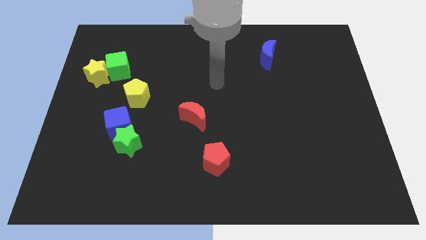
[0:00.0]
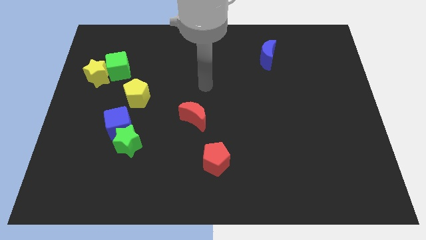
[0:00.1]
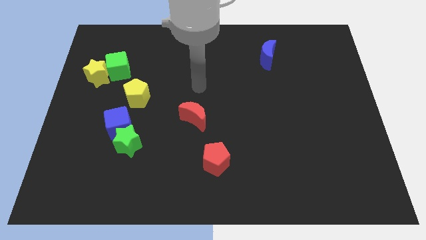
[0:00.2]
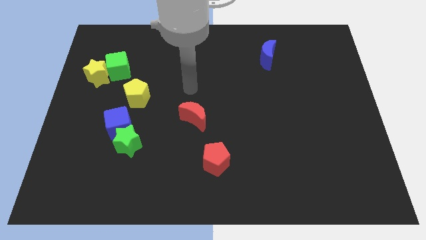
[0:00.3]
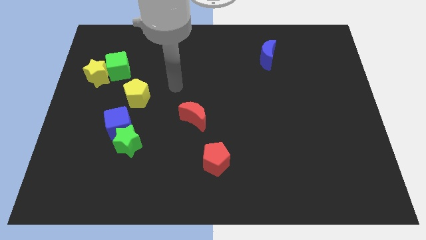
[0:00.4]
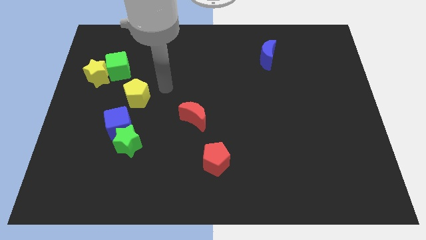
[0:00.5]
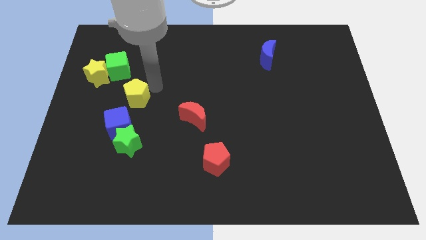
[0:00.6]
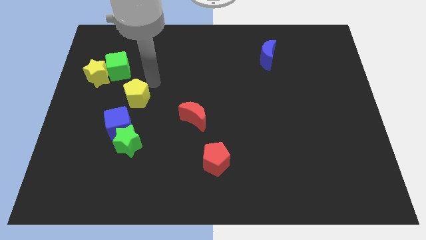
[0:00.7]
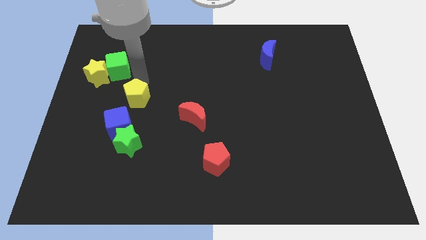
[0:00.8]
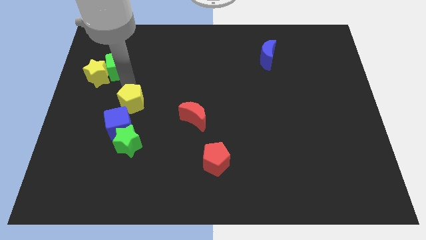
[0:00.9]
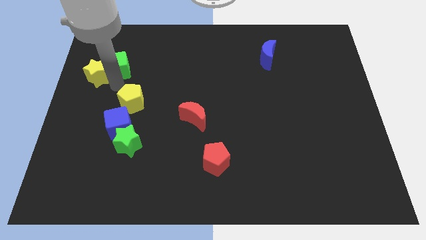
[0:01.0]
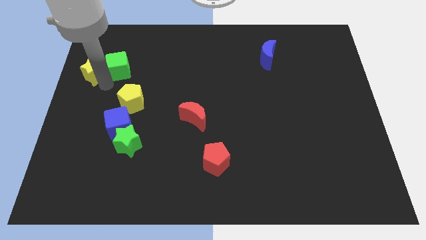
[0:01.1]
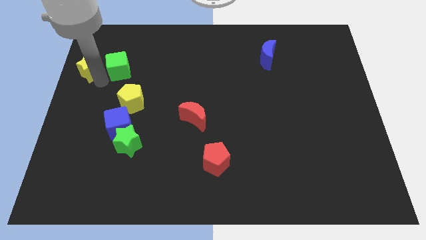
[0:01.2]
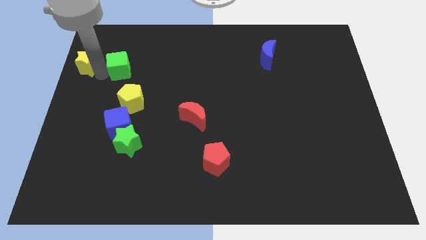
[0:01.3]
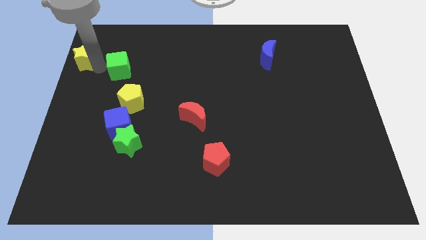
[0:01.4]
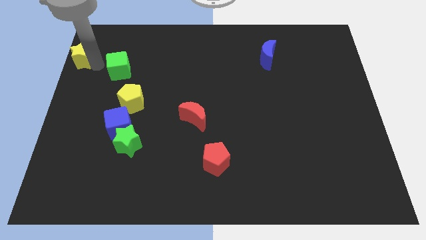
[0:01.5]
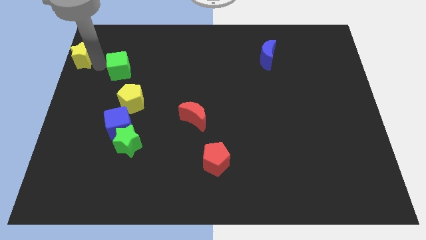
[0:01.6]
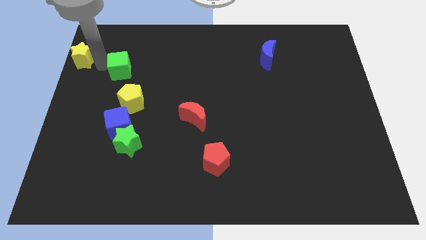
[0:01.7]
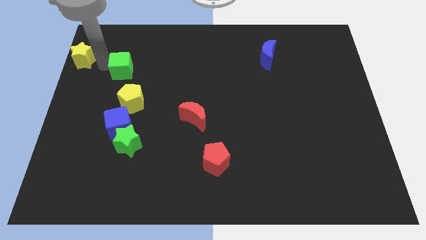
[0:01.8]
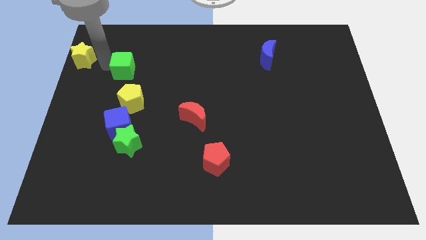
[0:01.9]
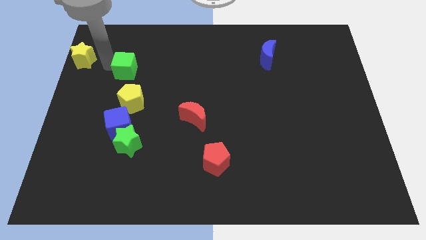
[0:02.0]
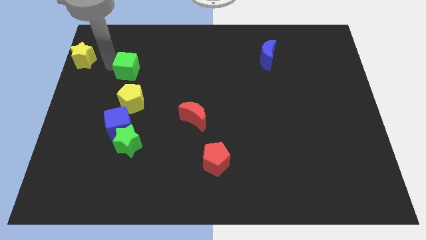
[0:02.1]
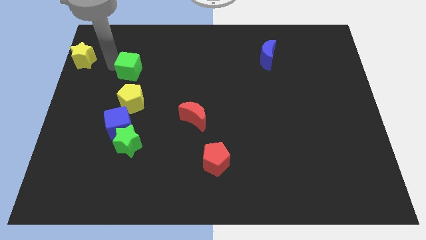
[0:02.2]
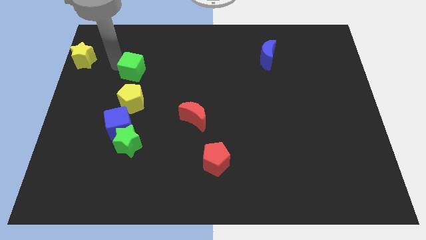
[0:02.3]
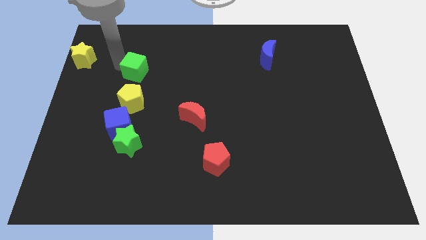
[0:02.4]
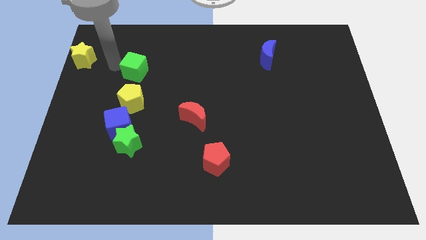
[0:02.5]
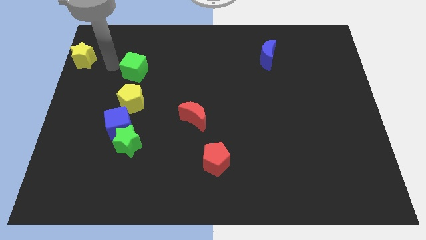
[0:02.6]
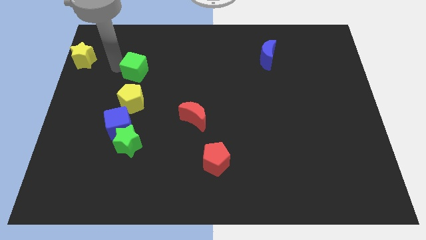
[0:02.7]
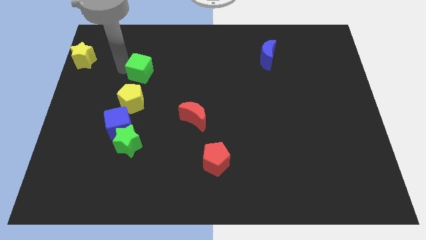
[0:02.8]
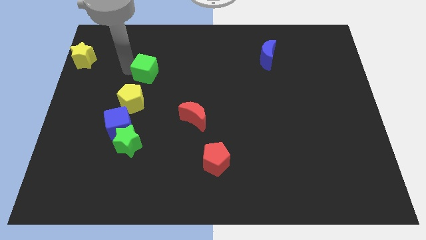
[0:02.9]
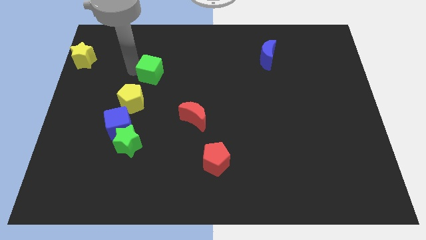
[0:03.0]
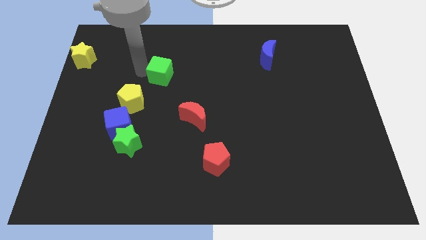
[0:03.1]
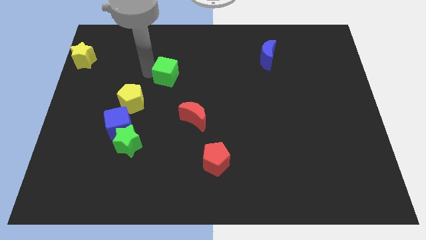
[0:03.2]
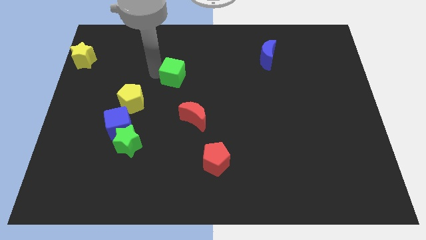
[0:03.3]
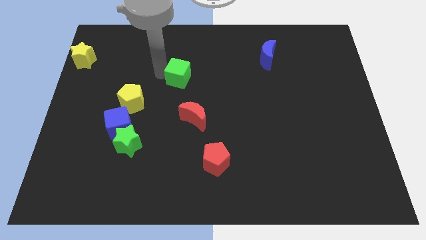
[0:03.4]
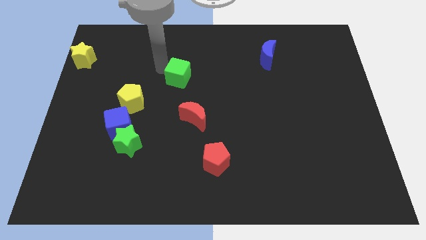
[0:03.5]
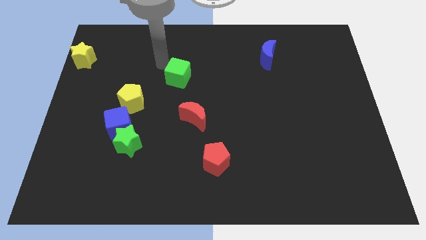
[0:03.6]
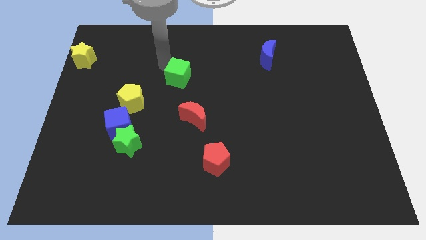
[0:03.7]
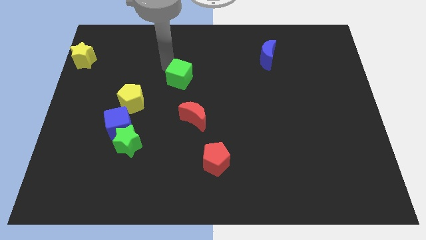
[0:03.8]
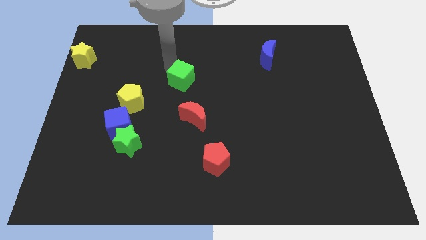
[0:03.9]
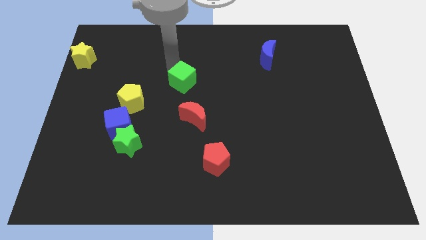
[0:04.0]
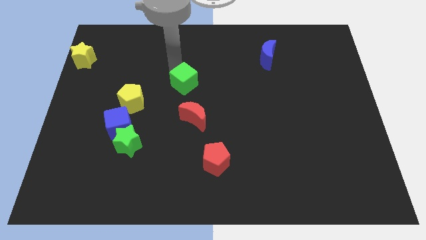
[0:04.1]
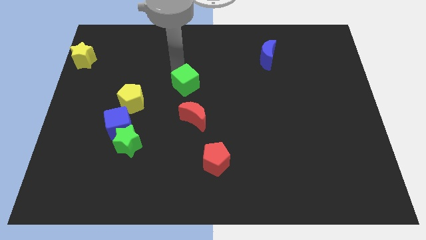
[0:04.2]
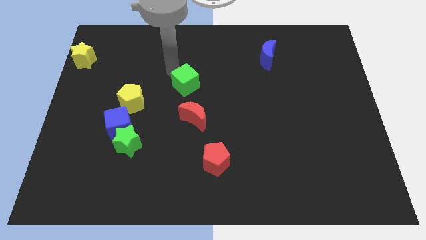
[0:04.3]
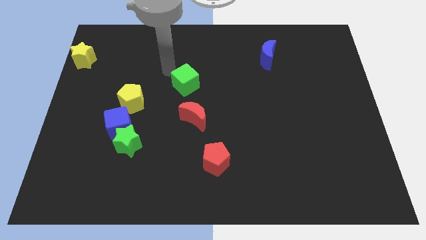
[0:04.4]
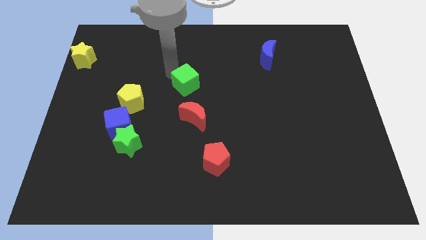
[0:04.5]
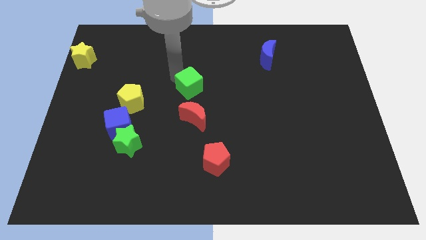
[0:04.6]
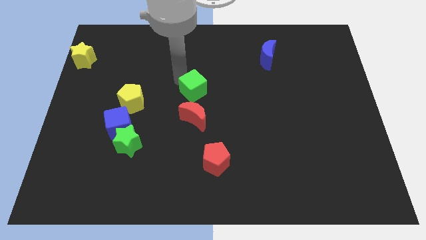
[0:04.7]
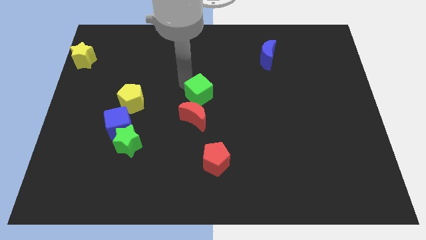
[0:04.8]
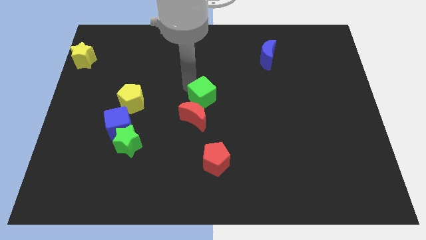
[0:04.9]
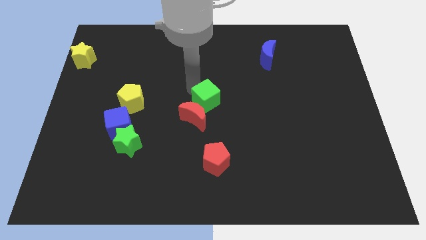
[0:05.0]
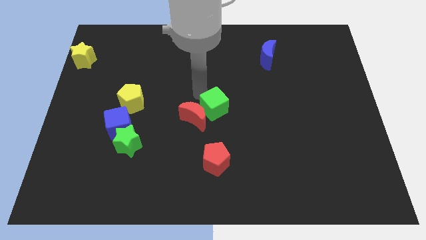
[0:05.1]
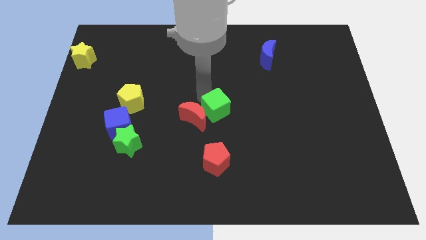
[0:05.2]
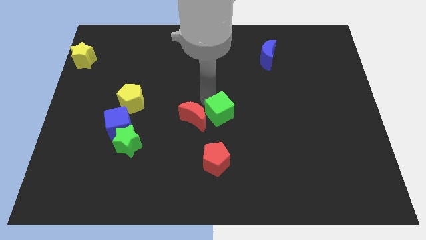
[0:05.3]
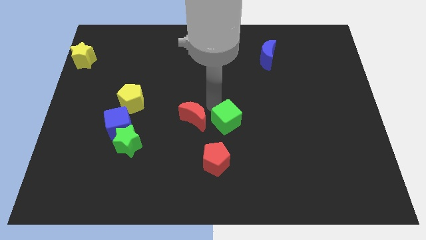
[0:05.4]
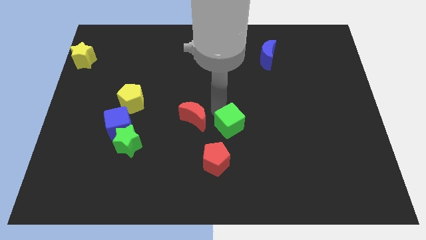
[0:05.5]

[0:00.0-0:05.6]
push the green cube to the top right side of the red pentagon

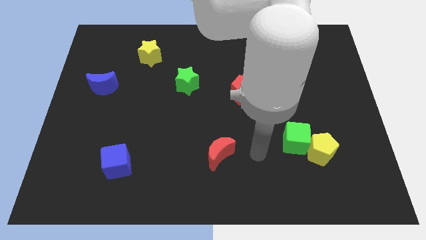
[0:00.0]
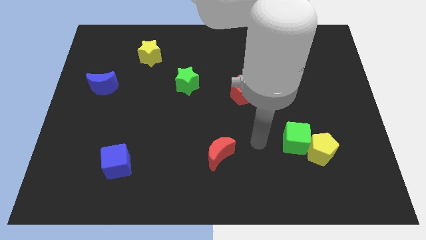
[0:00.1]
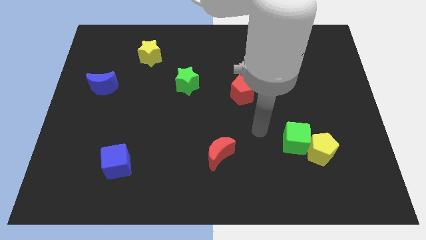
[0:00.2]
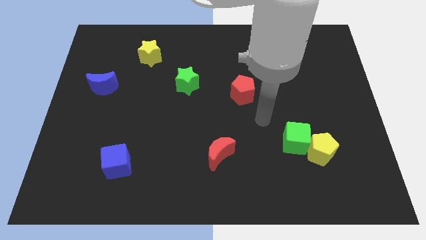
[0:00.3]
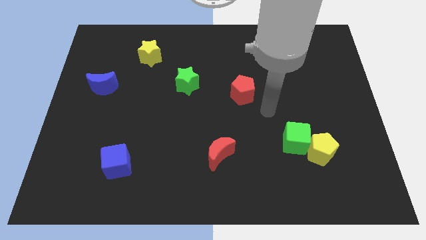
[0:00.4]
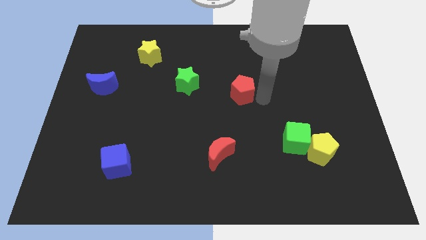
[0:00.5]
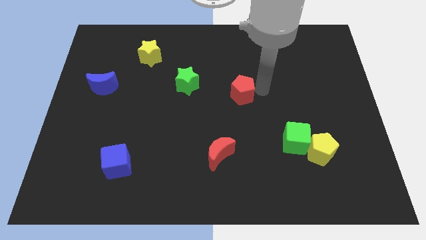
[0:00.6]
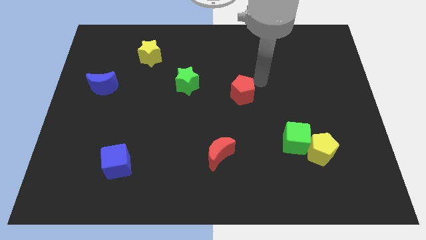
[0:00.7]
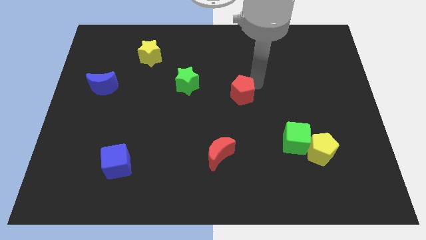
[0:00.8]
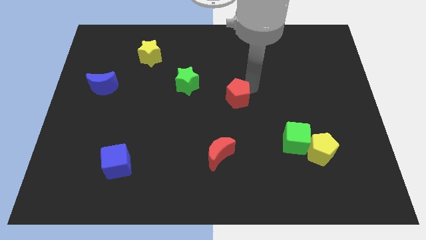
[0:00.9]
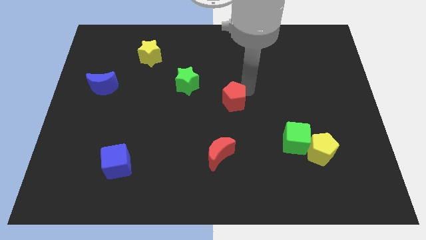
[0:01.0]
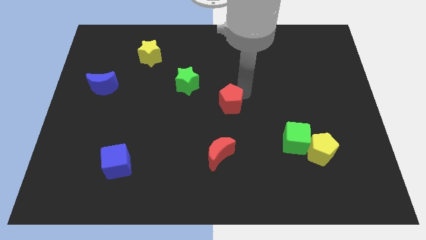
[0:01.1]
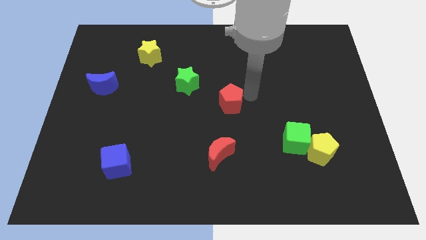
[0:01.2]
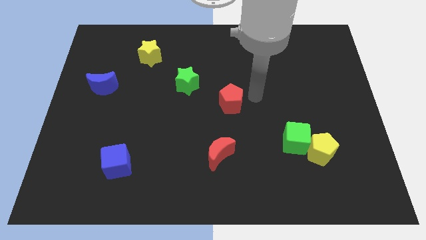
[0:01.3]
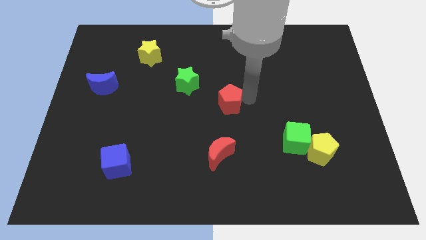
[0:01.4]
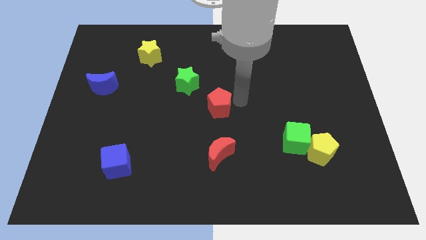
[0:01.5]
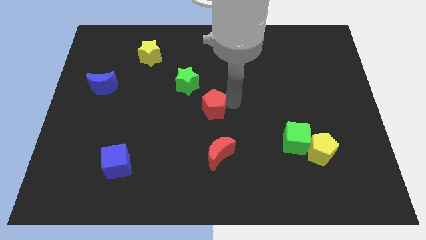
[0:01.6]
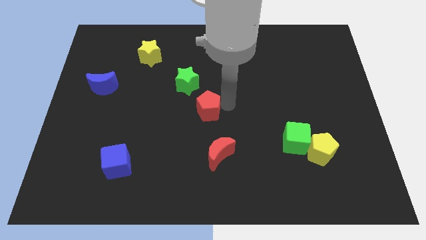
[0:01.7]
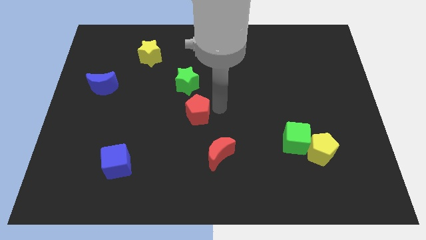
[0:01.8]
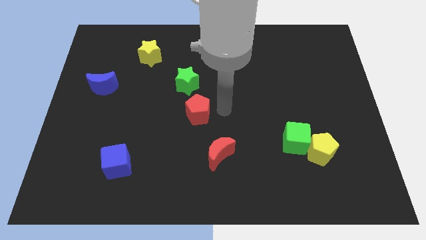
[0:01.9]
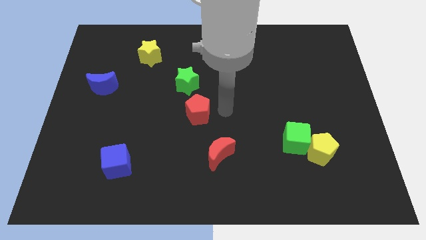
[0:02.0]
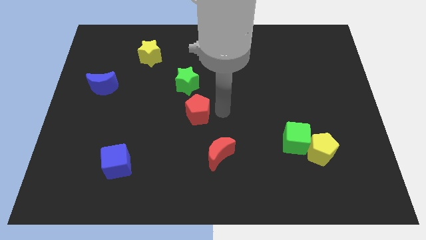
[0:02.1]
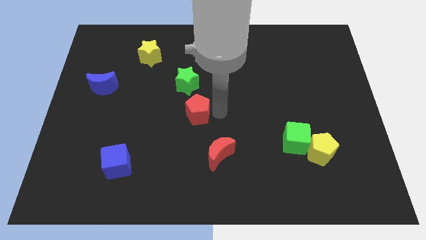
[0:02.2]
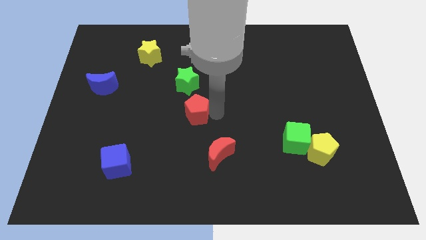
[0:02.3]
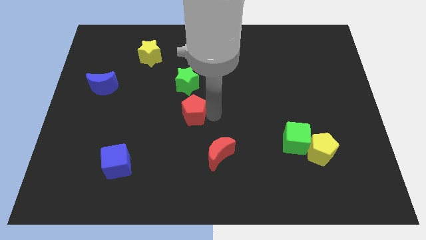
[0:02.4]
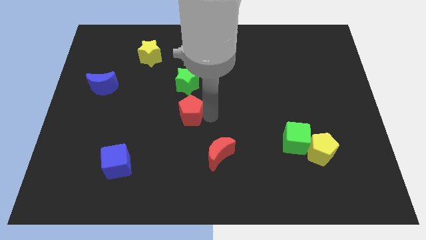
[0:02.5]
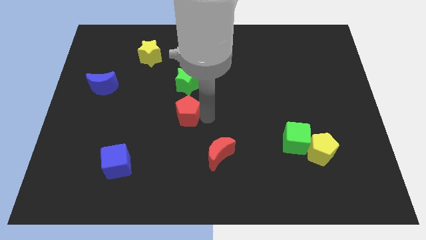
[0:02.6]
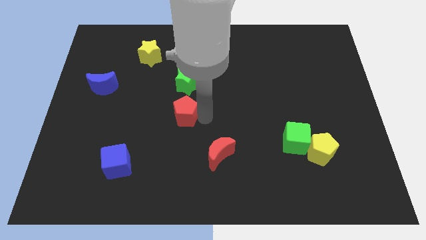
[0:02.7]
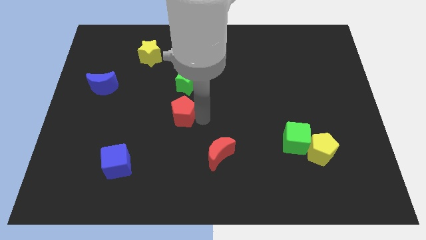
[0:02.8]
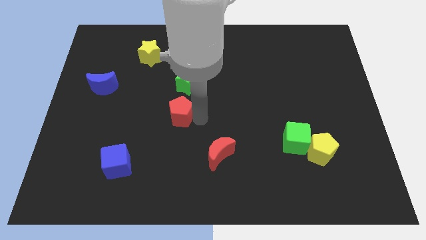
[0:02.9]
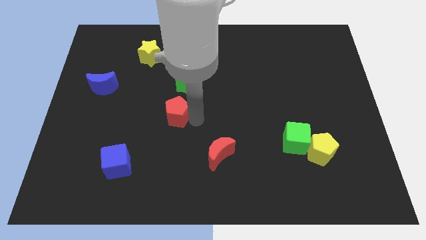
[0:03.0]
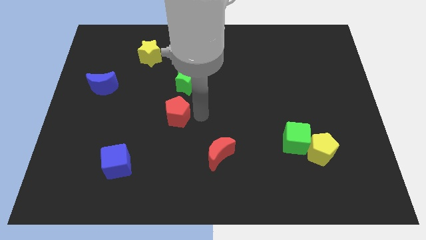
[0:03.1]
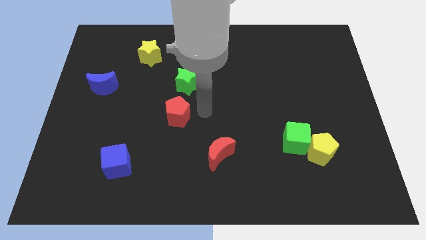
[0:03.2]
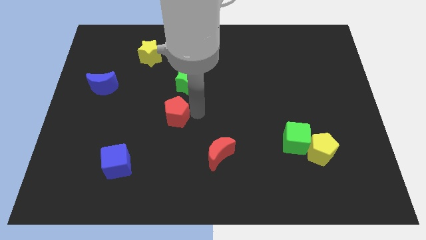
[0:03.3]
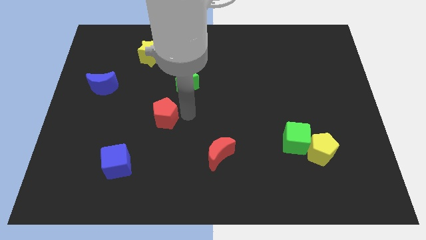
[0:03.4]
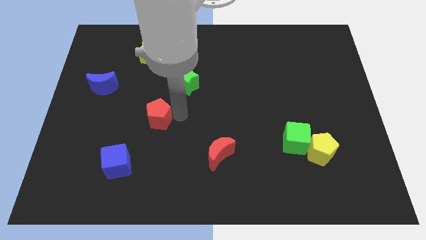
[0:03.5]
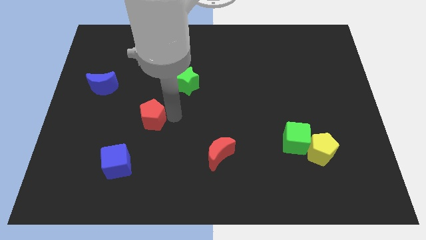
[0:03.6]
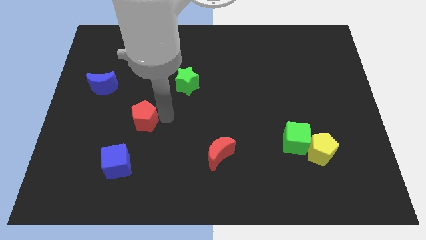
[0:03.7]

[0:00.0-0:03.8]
push the red pentagon to the top of the blue cube
